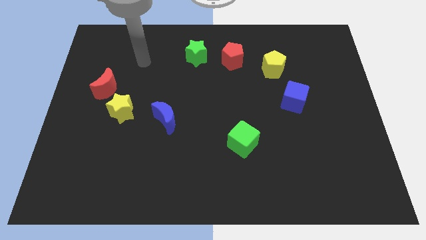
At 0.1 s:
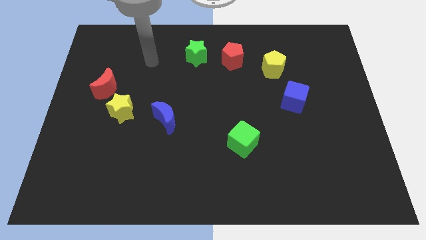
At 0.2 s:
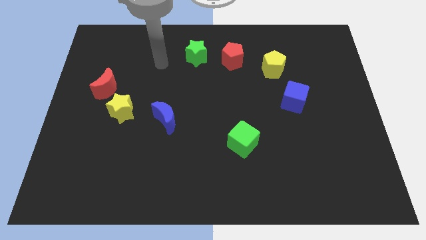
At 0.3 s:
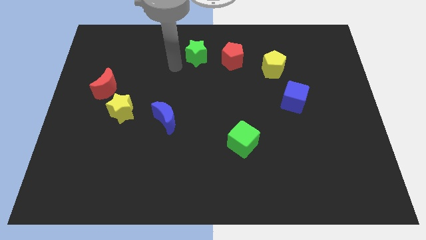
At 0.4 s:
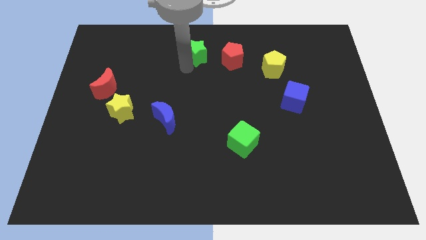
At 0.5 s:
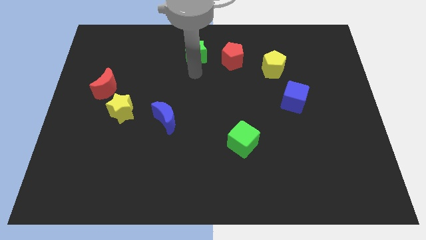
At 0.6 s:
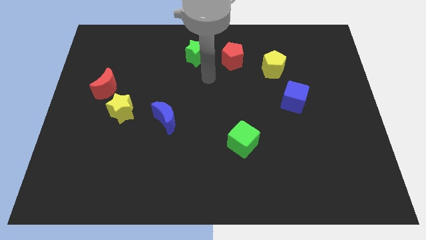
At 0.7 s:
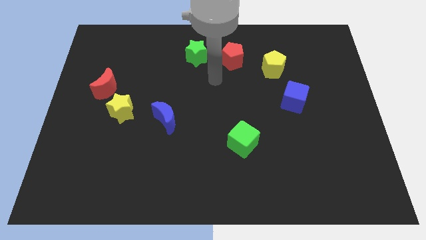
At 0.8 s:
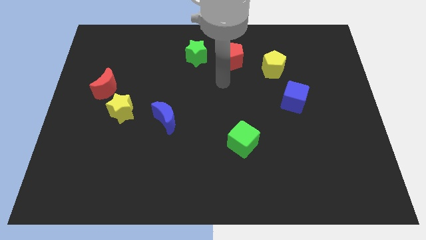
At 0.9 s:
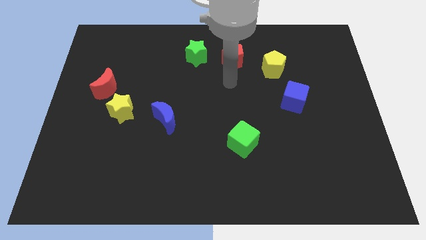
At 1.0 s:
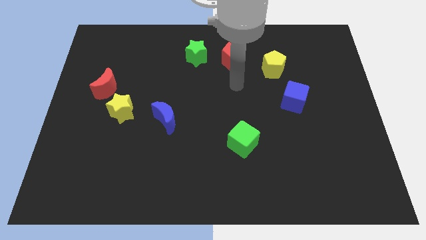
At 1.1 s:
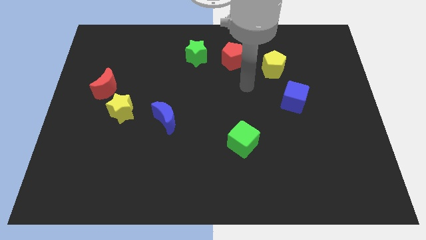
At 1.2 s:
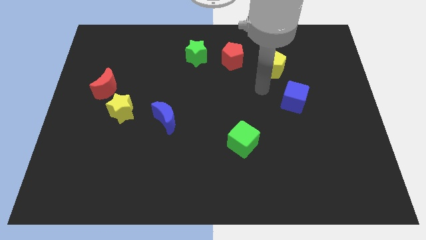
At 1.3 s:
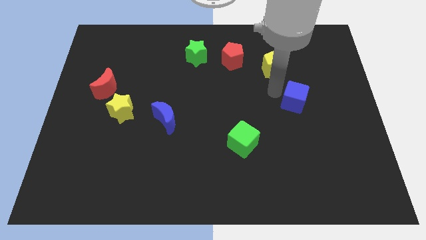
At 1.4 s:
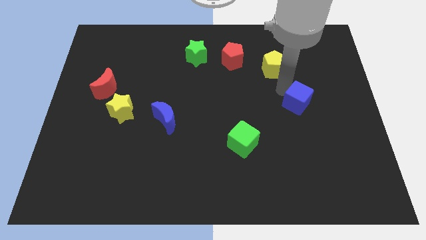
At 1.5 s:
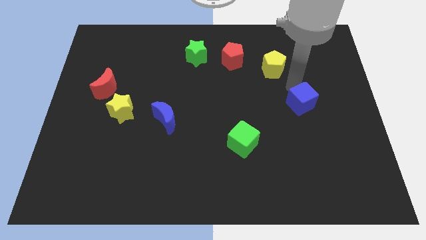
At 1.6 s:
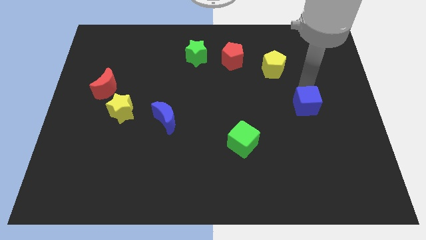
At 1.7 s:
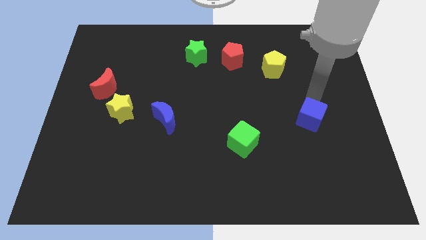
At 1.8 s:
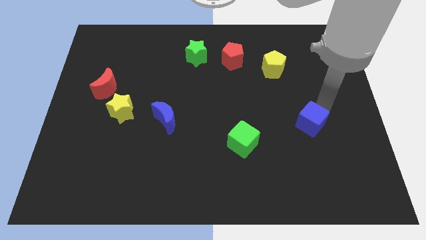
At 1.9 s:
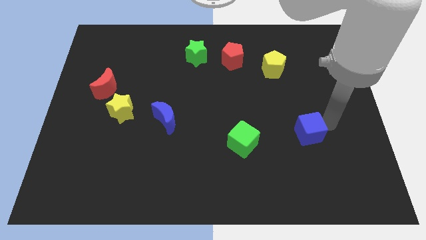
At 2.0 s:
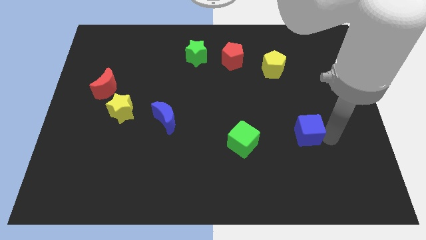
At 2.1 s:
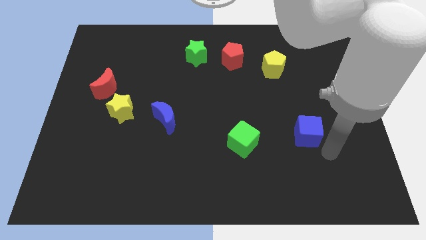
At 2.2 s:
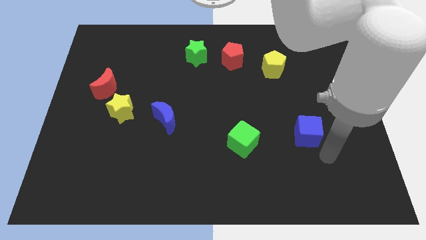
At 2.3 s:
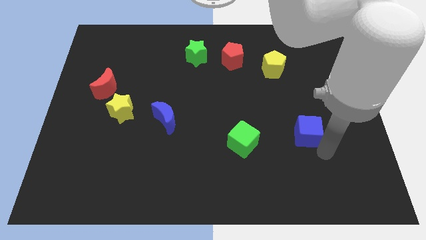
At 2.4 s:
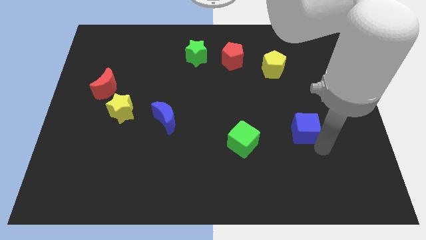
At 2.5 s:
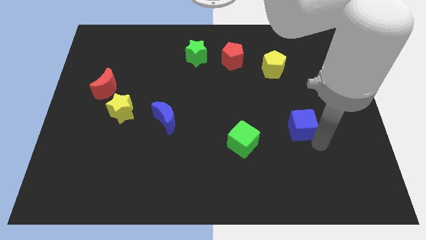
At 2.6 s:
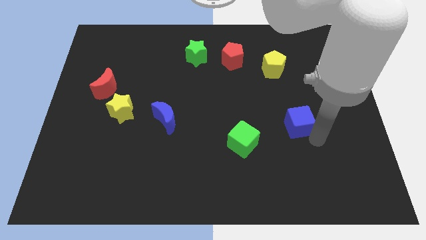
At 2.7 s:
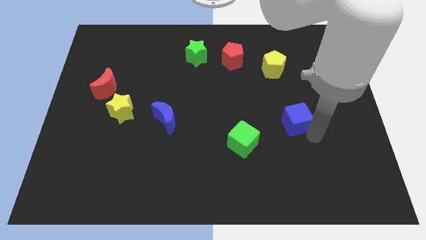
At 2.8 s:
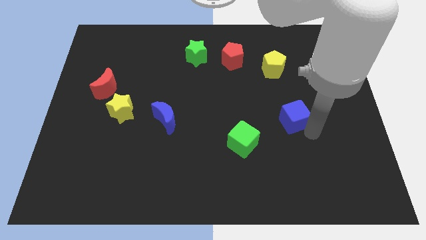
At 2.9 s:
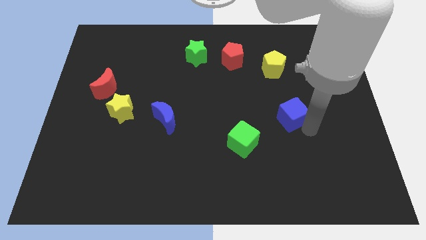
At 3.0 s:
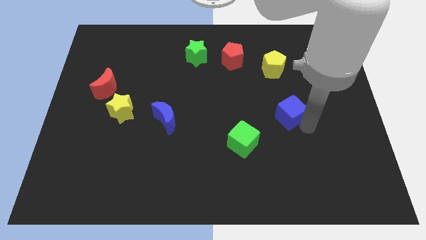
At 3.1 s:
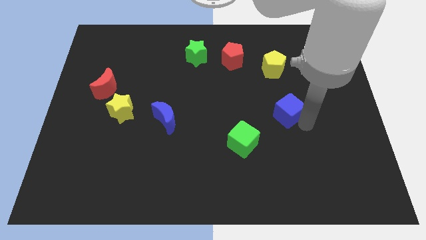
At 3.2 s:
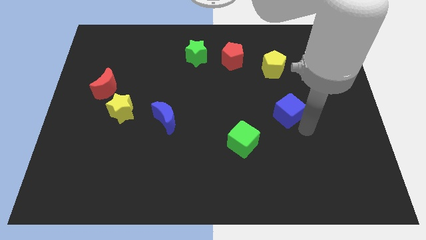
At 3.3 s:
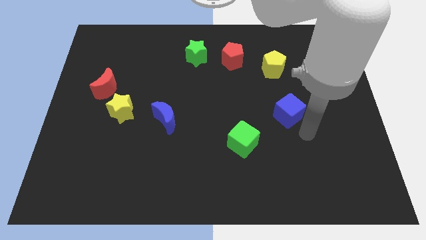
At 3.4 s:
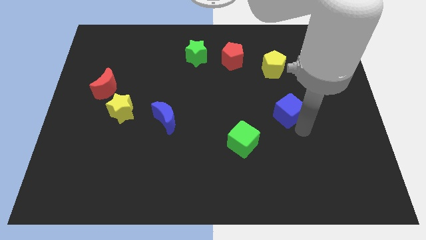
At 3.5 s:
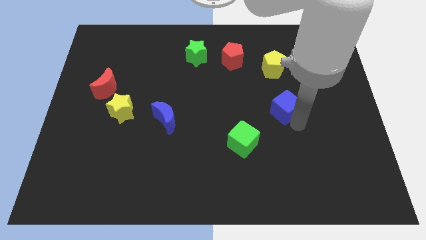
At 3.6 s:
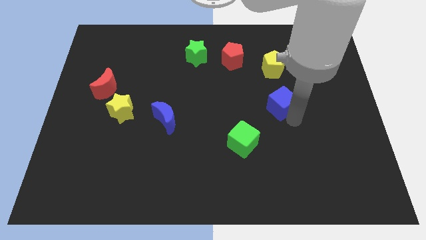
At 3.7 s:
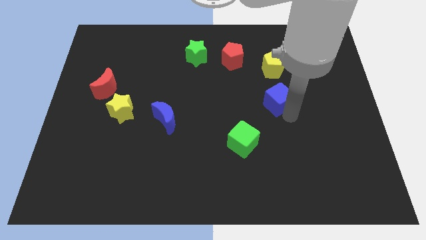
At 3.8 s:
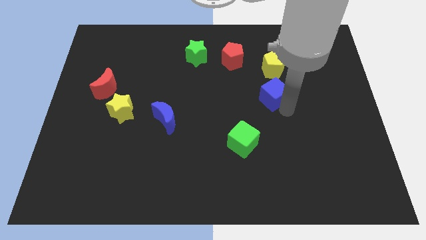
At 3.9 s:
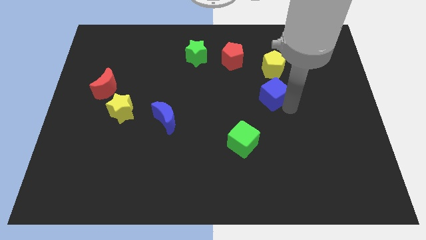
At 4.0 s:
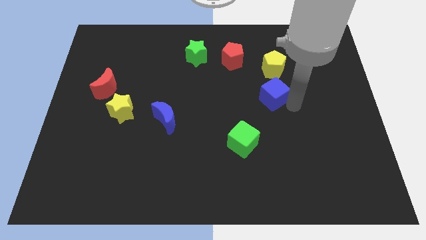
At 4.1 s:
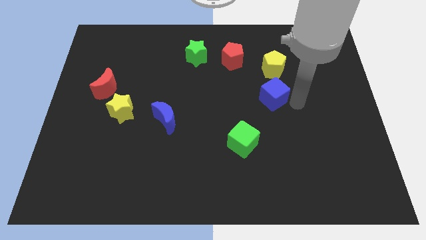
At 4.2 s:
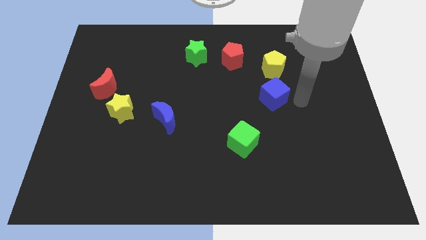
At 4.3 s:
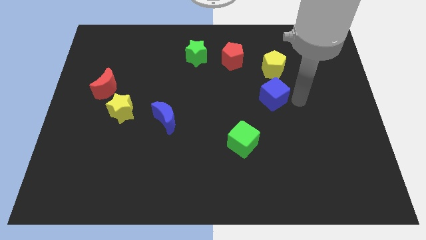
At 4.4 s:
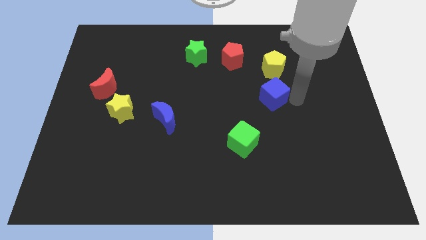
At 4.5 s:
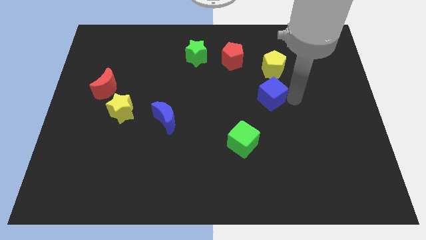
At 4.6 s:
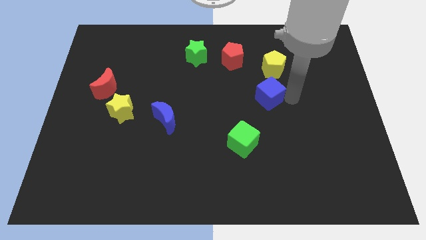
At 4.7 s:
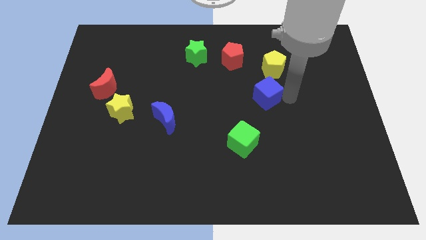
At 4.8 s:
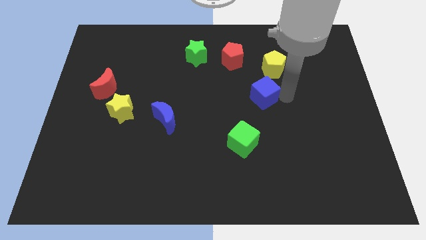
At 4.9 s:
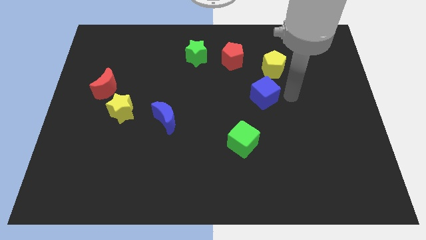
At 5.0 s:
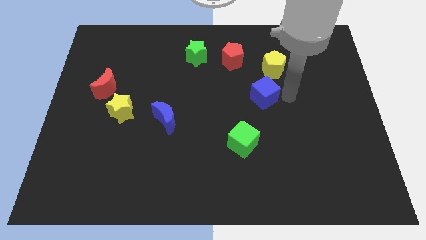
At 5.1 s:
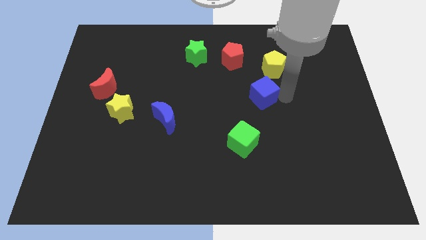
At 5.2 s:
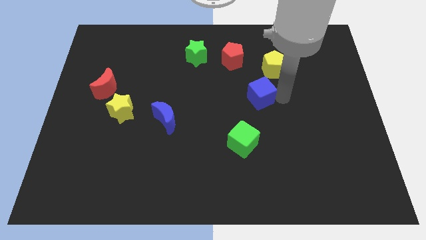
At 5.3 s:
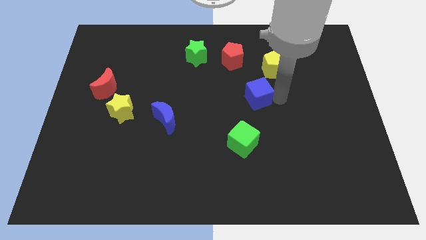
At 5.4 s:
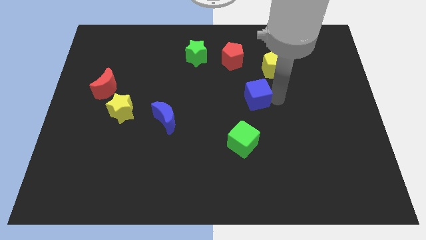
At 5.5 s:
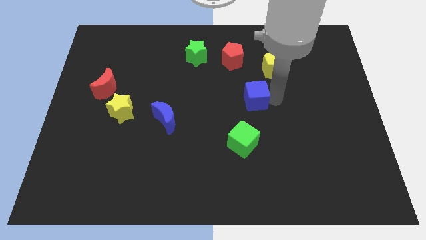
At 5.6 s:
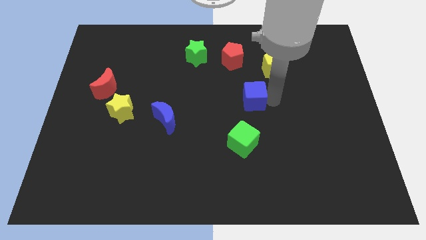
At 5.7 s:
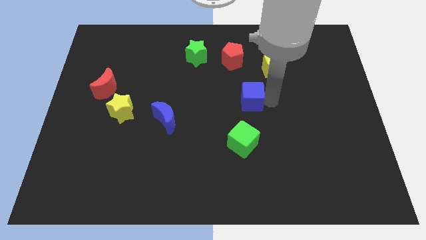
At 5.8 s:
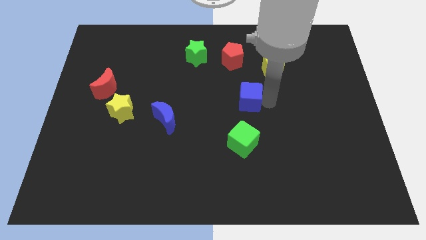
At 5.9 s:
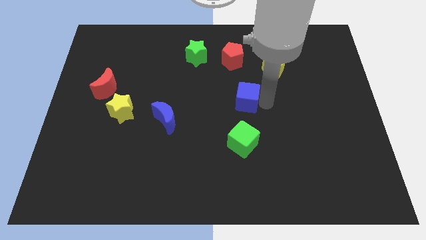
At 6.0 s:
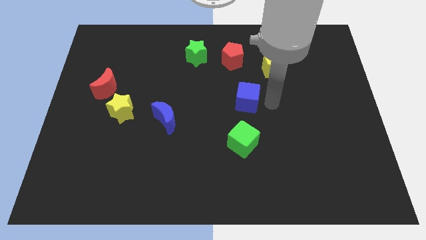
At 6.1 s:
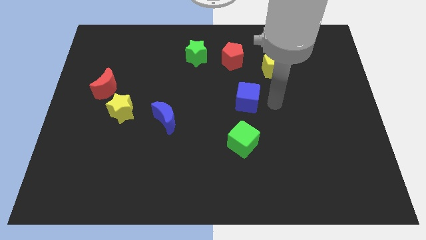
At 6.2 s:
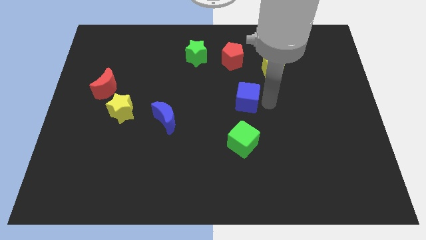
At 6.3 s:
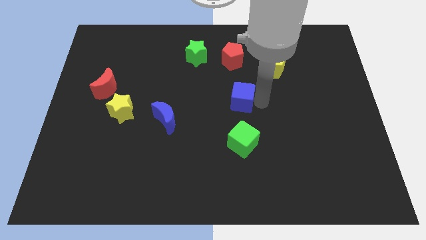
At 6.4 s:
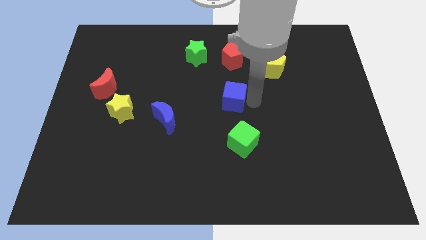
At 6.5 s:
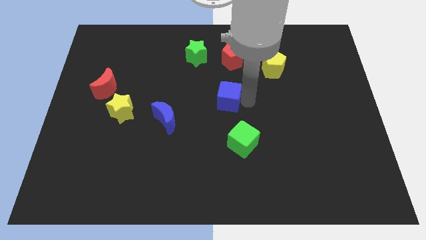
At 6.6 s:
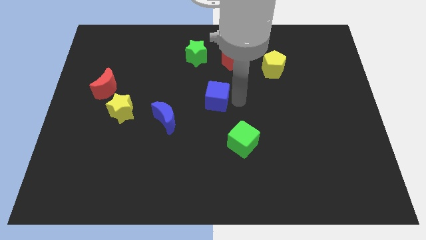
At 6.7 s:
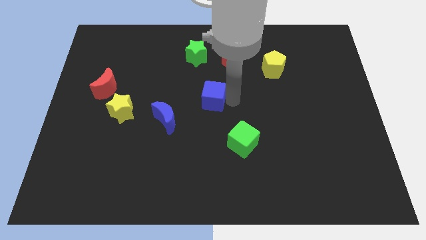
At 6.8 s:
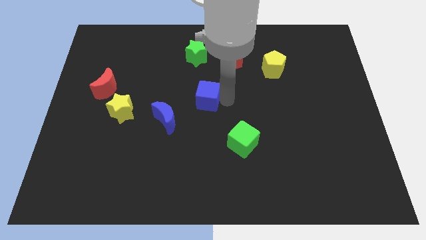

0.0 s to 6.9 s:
push the blue cube to the left

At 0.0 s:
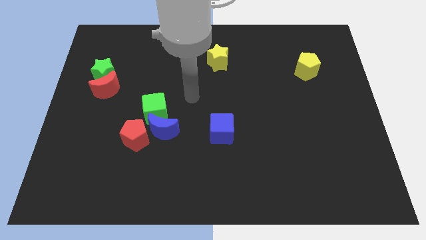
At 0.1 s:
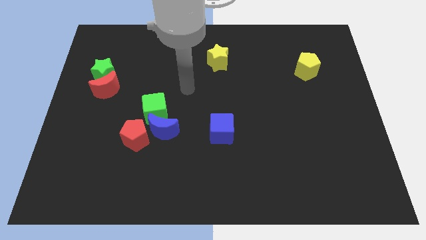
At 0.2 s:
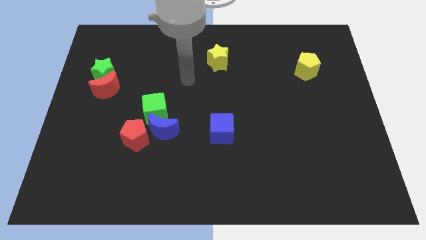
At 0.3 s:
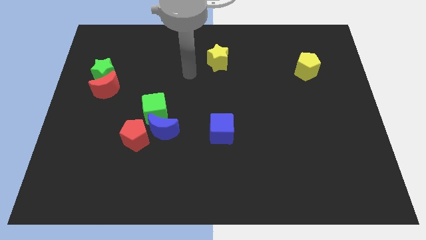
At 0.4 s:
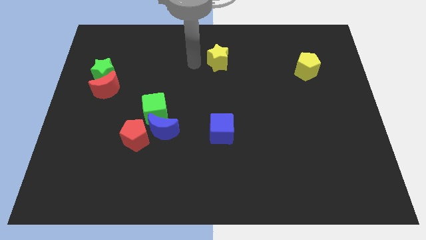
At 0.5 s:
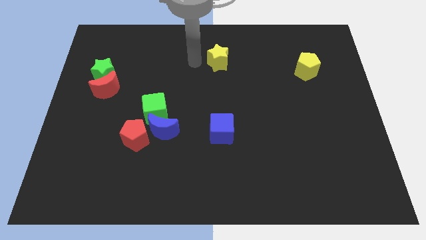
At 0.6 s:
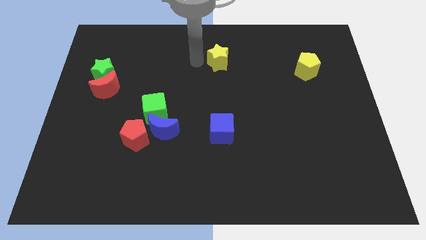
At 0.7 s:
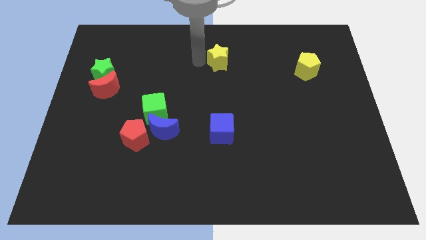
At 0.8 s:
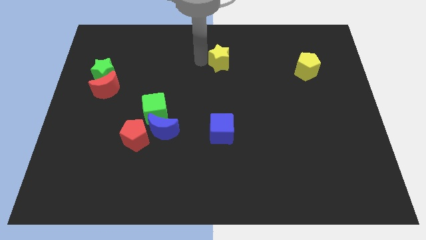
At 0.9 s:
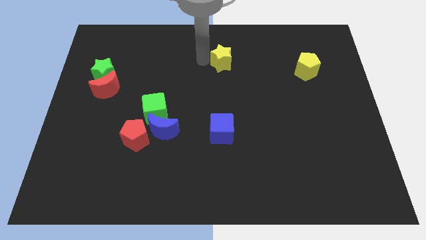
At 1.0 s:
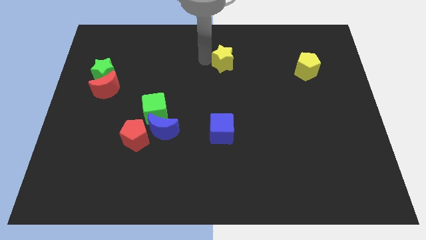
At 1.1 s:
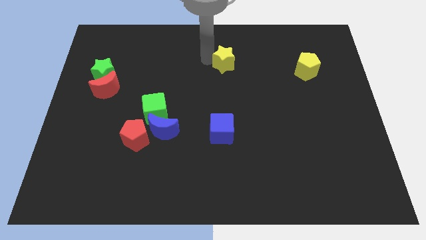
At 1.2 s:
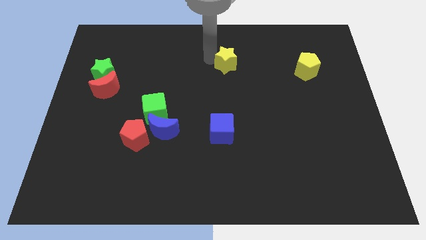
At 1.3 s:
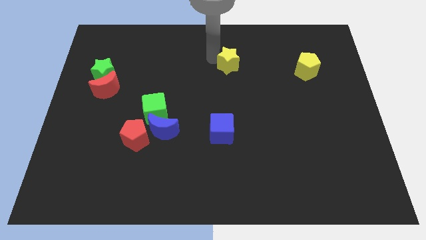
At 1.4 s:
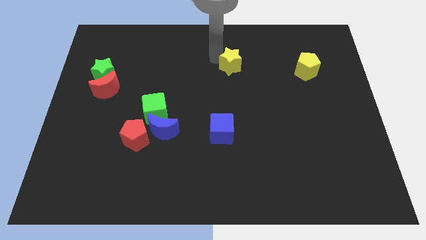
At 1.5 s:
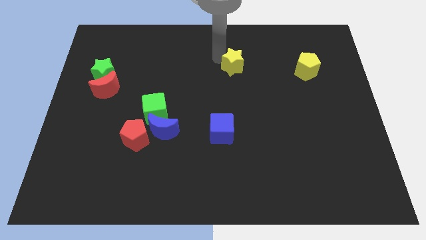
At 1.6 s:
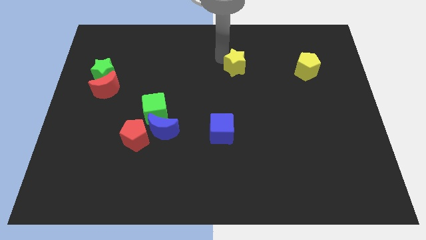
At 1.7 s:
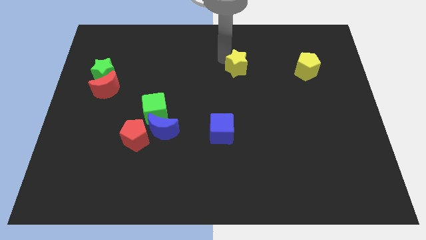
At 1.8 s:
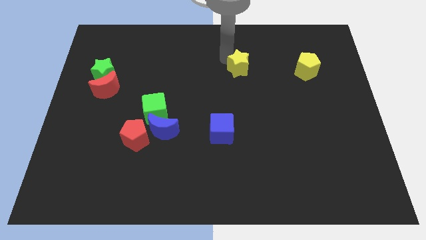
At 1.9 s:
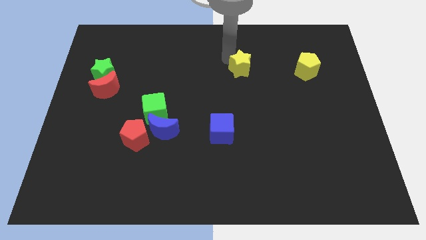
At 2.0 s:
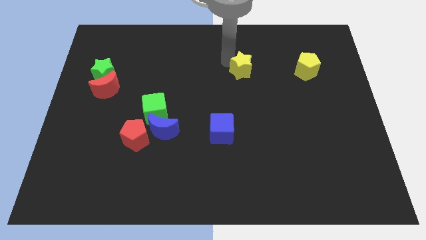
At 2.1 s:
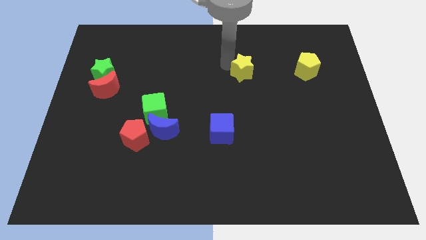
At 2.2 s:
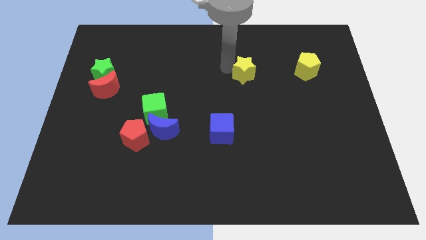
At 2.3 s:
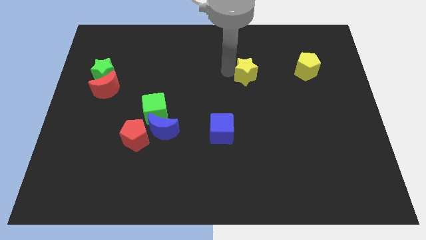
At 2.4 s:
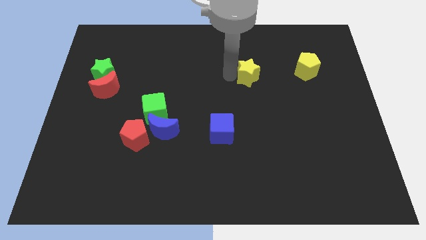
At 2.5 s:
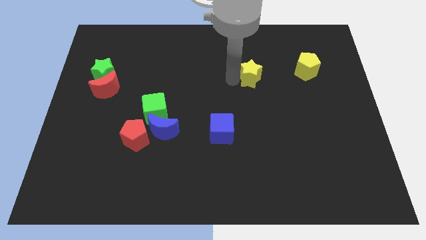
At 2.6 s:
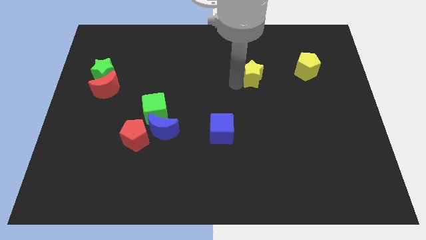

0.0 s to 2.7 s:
slide the yellow star slightly to the right
